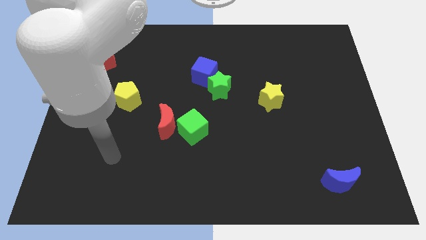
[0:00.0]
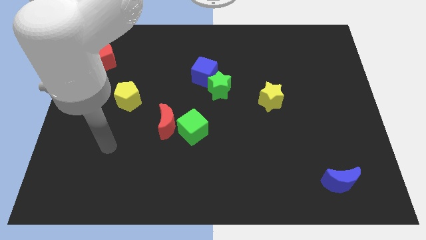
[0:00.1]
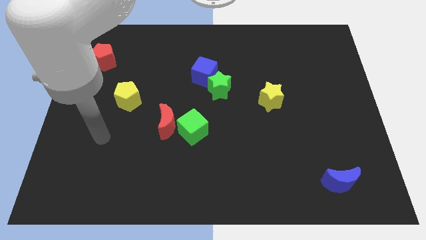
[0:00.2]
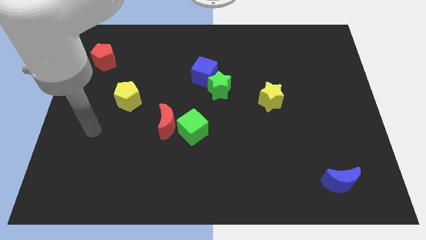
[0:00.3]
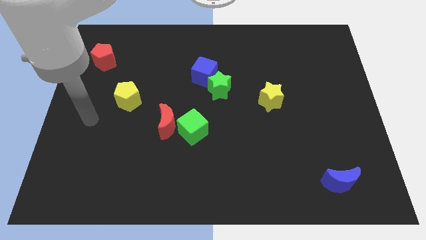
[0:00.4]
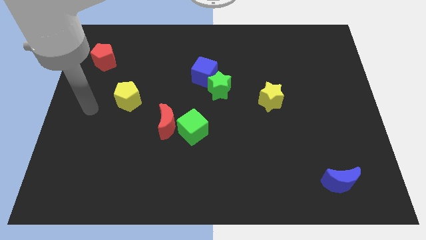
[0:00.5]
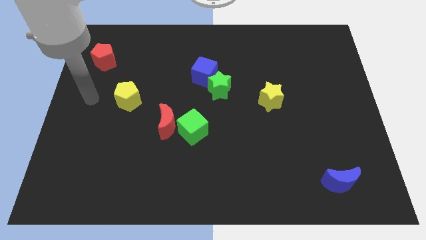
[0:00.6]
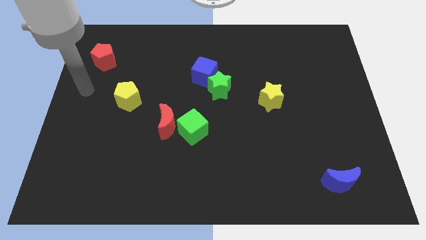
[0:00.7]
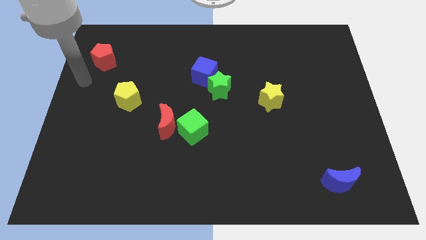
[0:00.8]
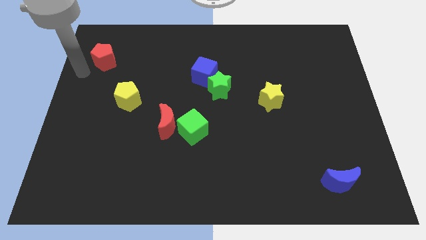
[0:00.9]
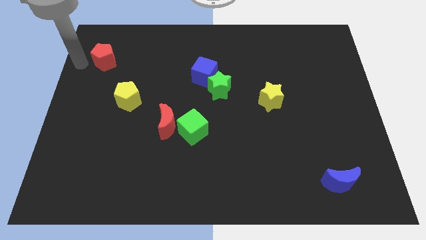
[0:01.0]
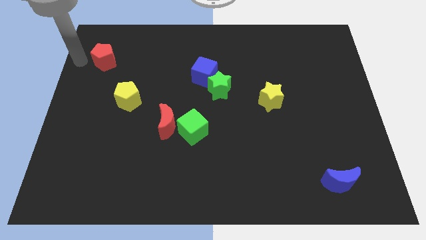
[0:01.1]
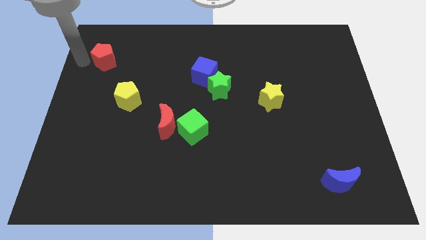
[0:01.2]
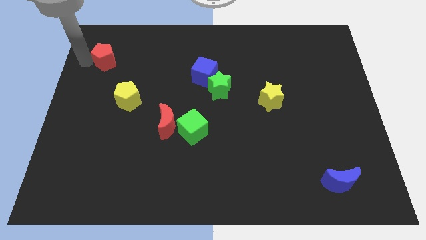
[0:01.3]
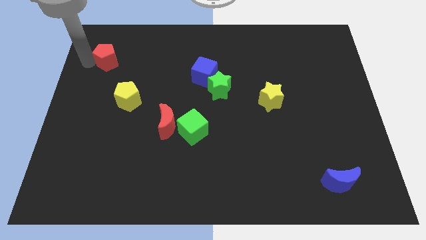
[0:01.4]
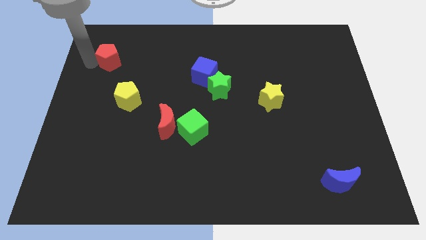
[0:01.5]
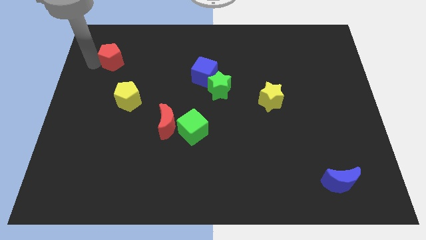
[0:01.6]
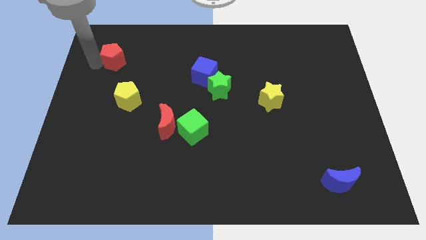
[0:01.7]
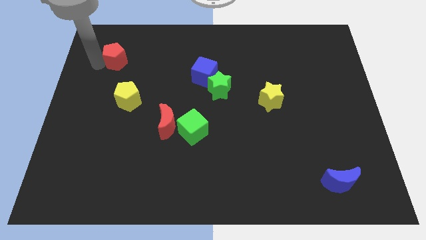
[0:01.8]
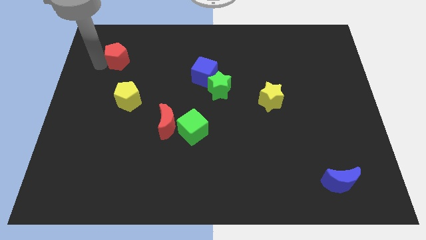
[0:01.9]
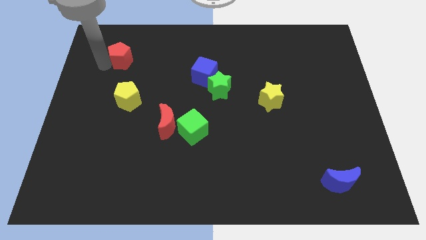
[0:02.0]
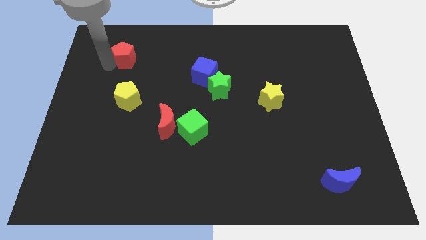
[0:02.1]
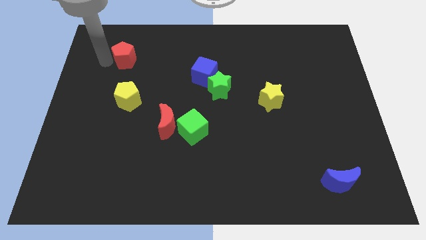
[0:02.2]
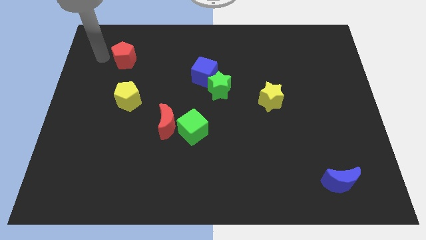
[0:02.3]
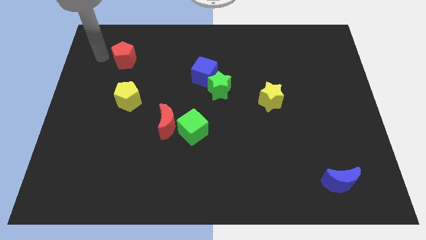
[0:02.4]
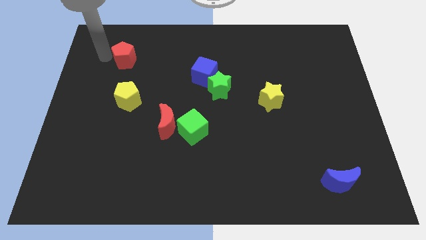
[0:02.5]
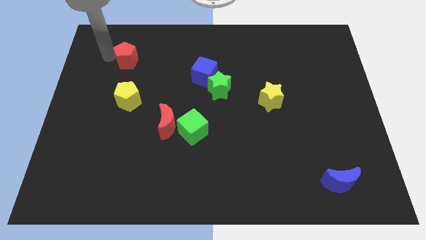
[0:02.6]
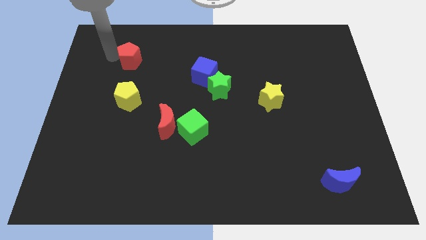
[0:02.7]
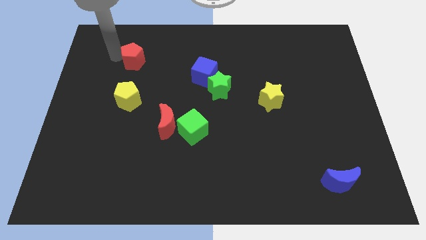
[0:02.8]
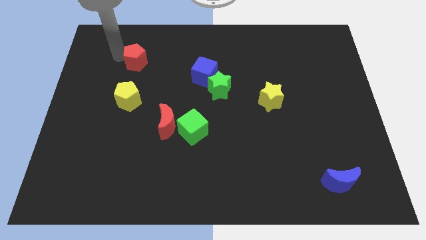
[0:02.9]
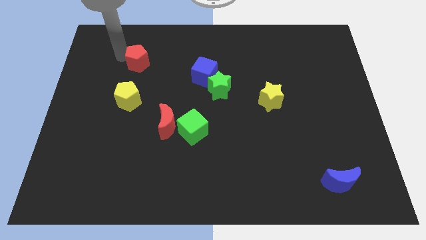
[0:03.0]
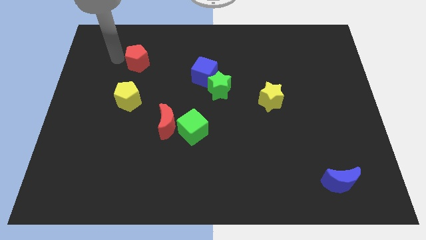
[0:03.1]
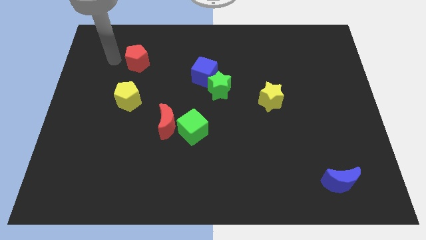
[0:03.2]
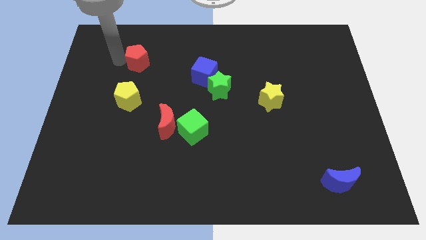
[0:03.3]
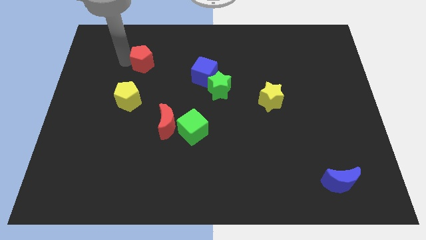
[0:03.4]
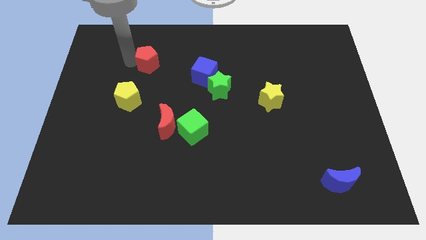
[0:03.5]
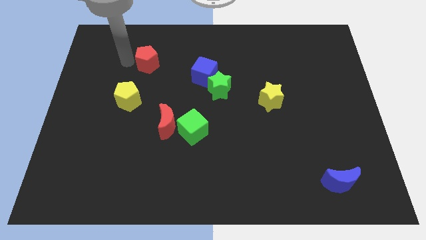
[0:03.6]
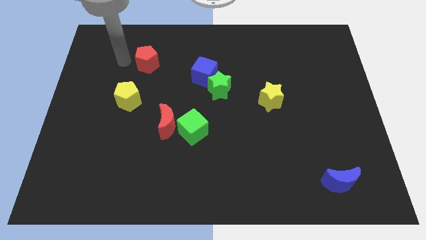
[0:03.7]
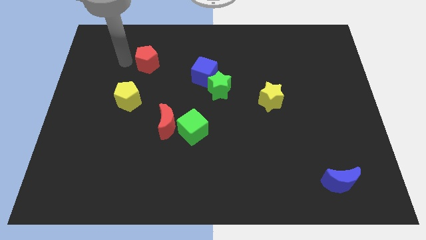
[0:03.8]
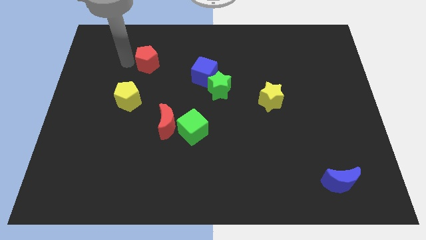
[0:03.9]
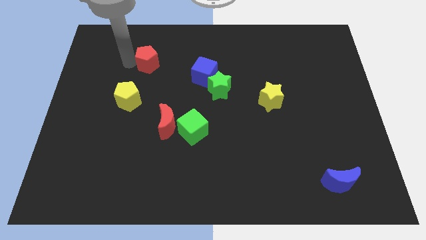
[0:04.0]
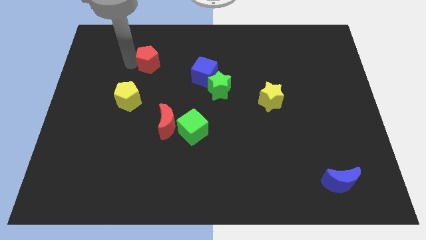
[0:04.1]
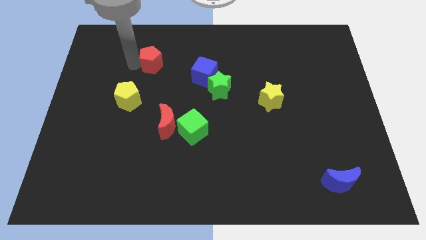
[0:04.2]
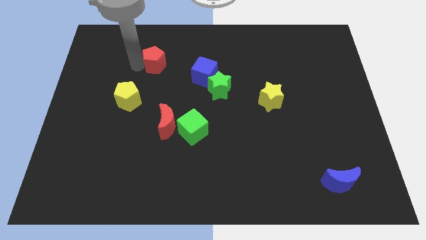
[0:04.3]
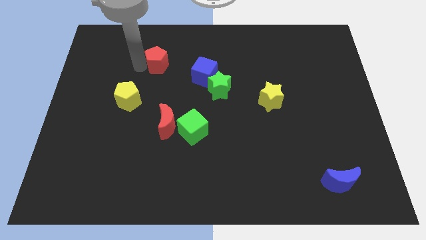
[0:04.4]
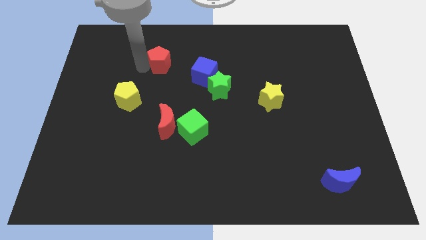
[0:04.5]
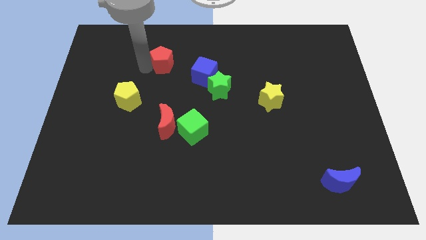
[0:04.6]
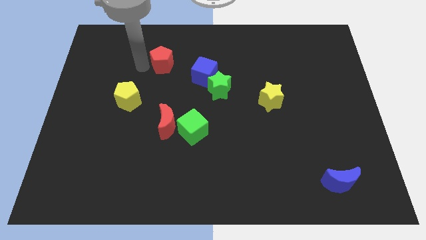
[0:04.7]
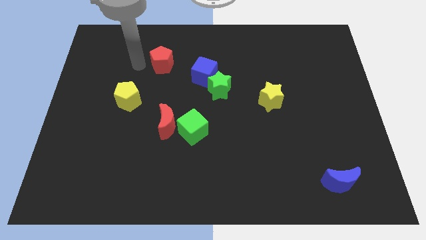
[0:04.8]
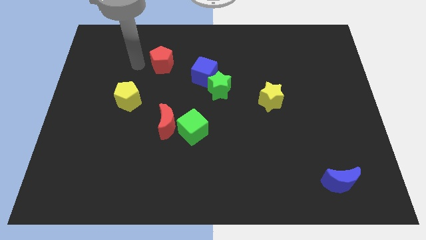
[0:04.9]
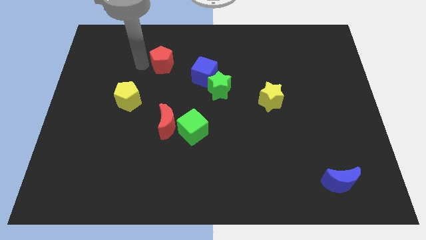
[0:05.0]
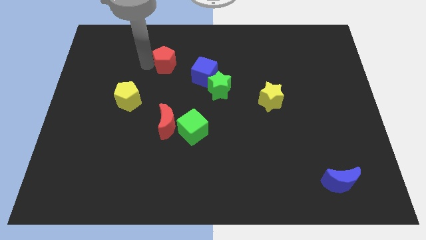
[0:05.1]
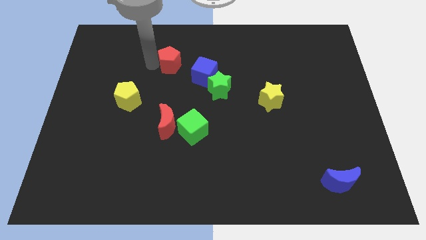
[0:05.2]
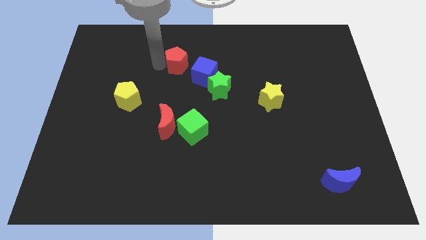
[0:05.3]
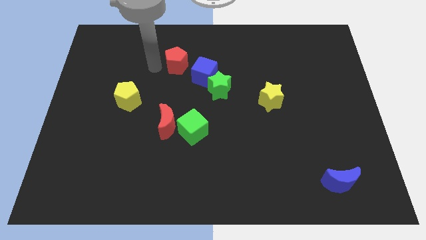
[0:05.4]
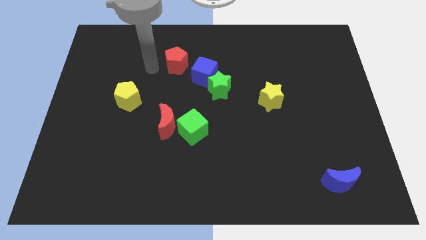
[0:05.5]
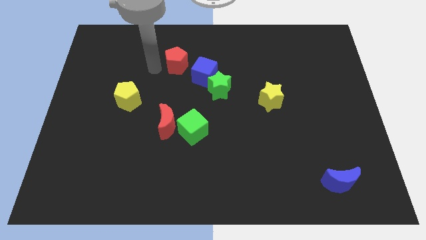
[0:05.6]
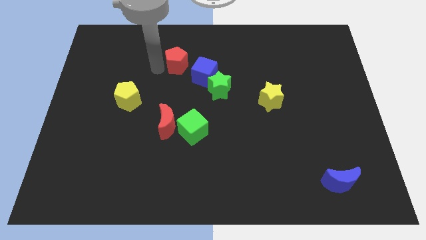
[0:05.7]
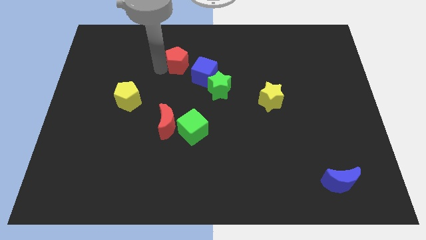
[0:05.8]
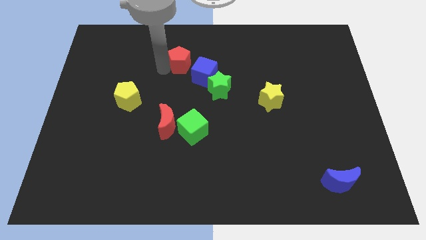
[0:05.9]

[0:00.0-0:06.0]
move the red pentagon right

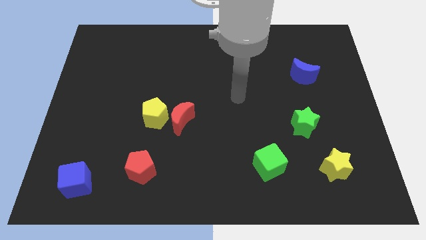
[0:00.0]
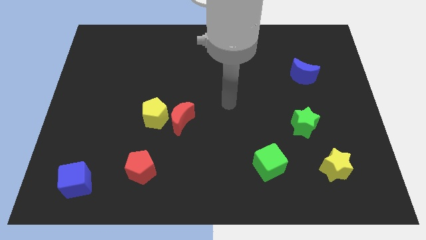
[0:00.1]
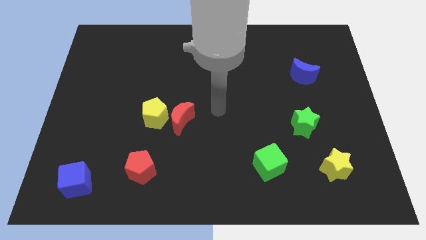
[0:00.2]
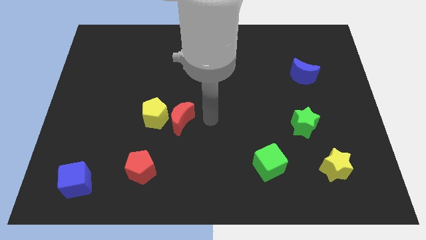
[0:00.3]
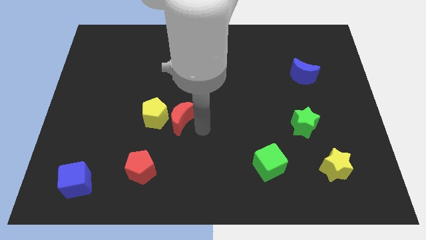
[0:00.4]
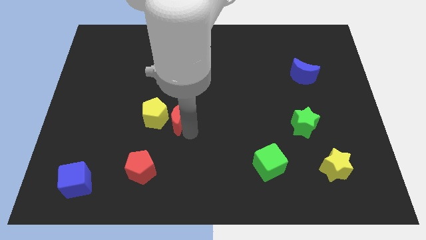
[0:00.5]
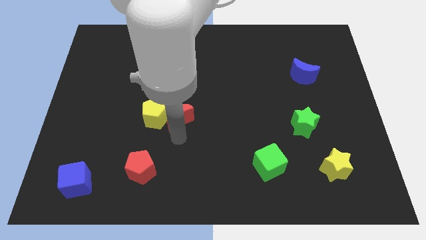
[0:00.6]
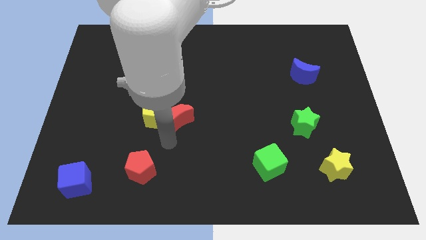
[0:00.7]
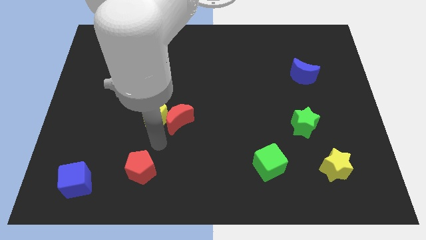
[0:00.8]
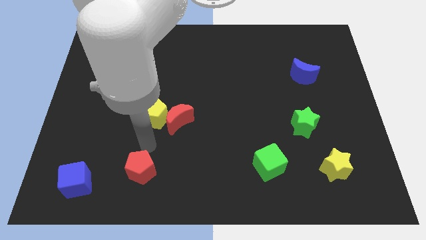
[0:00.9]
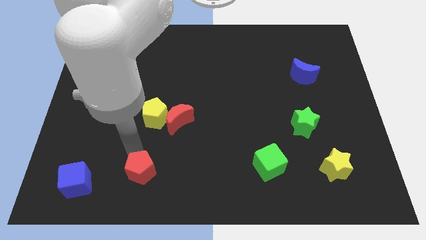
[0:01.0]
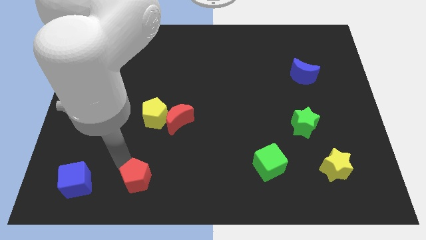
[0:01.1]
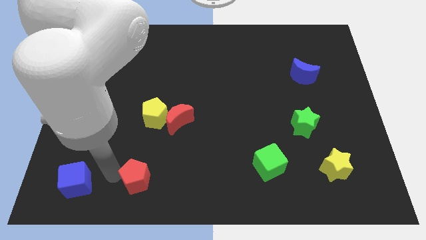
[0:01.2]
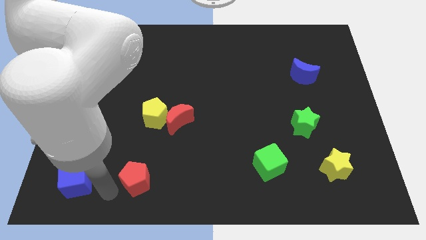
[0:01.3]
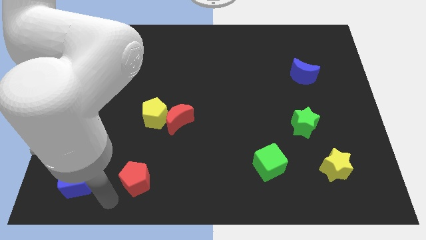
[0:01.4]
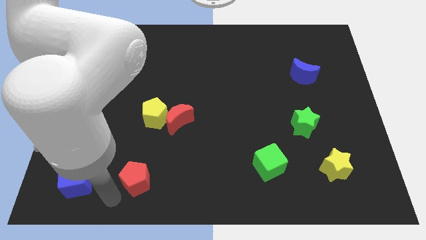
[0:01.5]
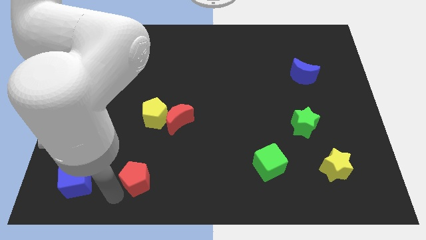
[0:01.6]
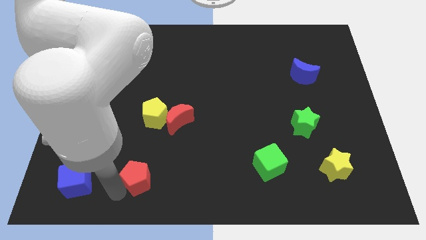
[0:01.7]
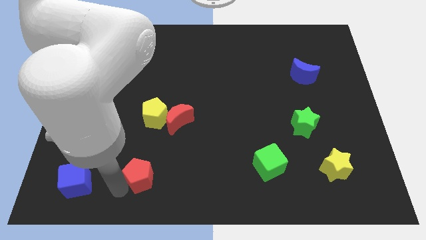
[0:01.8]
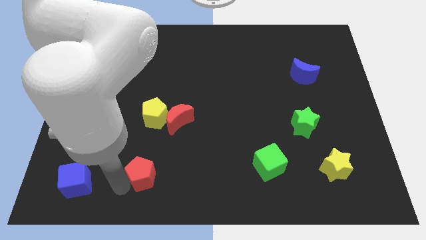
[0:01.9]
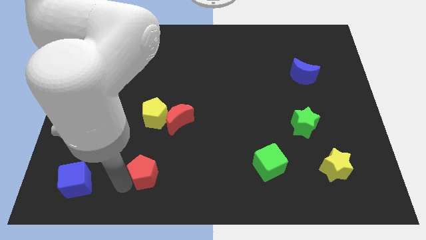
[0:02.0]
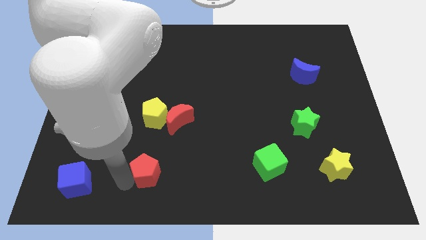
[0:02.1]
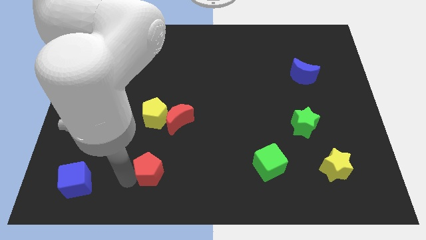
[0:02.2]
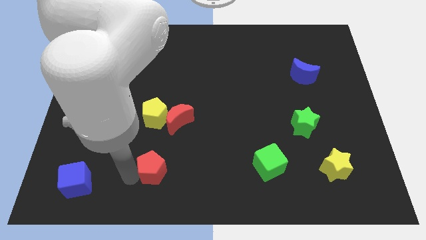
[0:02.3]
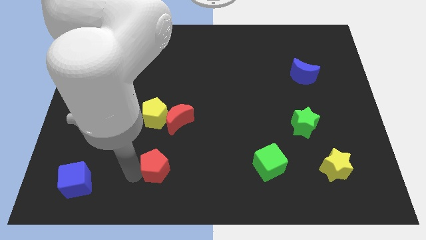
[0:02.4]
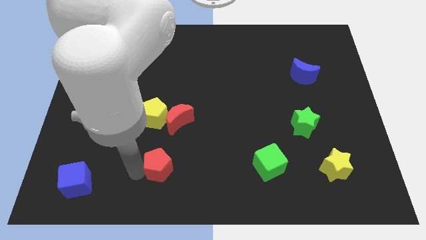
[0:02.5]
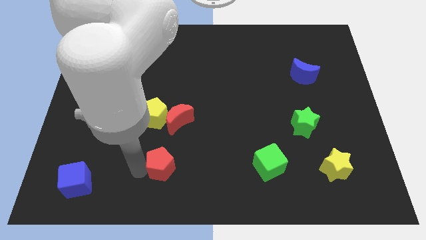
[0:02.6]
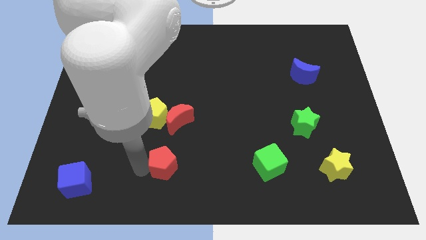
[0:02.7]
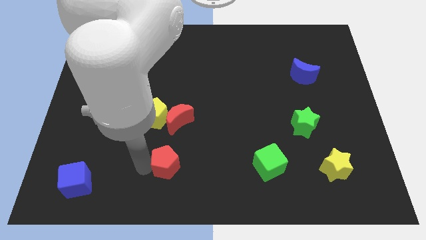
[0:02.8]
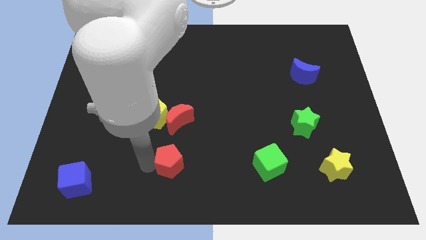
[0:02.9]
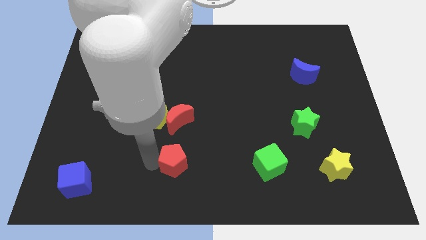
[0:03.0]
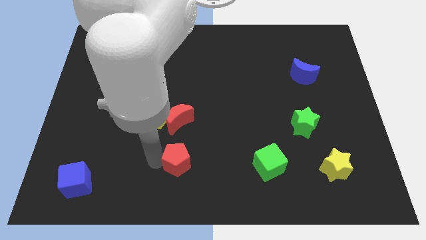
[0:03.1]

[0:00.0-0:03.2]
push the red pentagon to the right a bit
